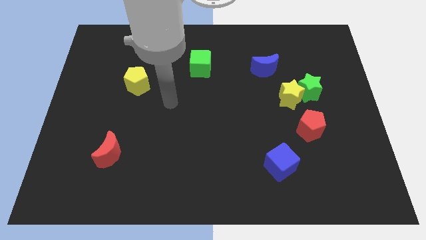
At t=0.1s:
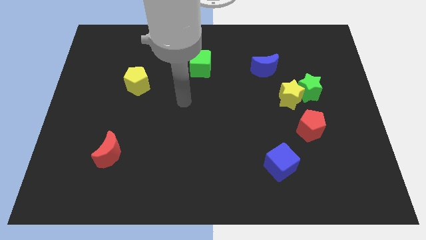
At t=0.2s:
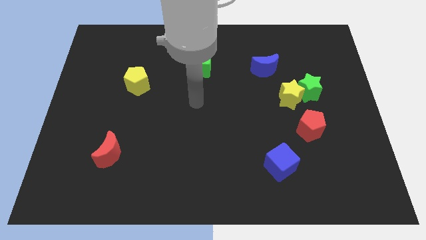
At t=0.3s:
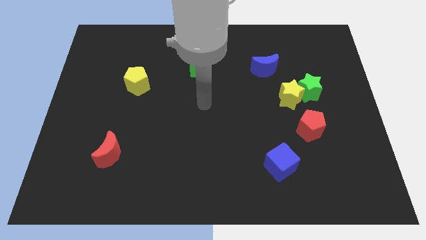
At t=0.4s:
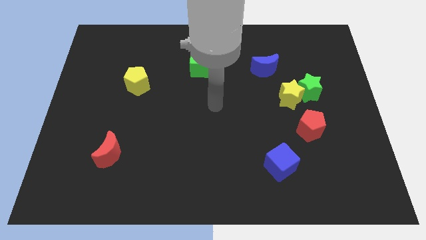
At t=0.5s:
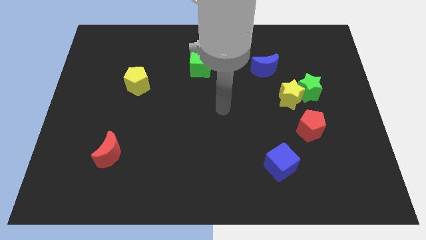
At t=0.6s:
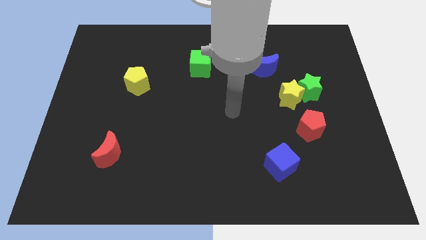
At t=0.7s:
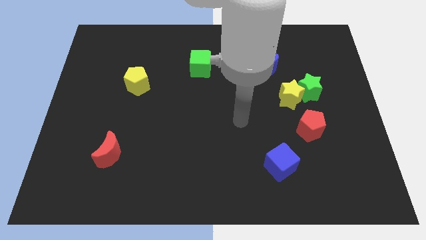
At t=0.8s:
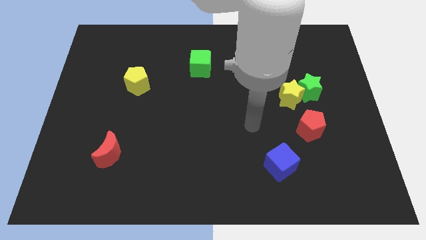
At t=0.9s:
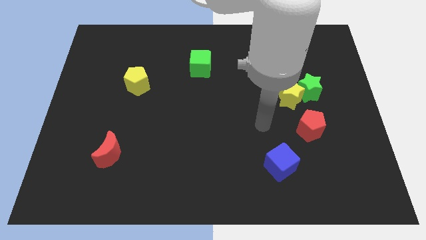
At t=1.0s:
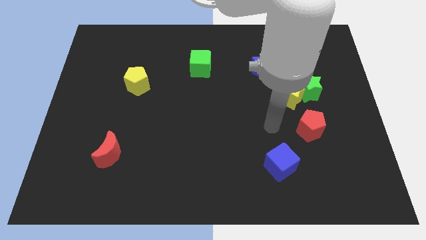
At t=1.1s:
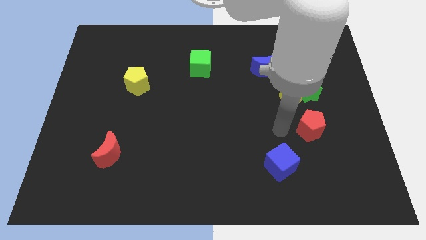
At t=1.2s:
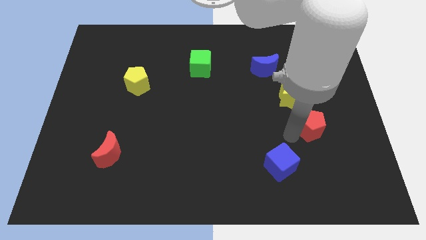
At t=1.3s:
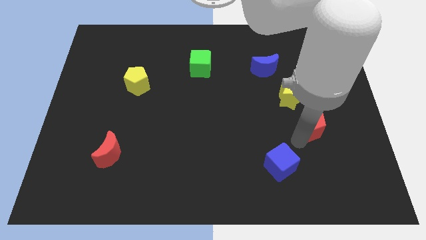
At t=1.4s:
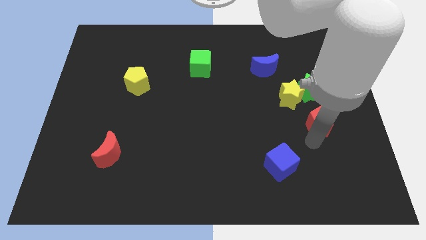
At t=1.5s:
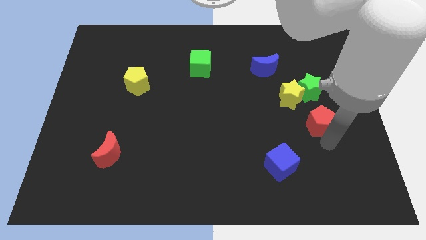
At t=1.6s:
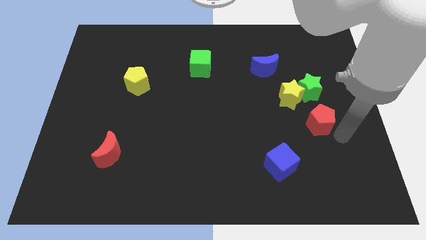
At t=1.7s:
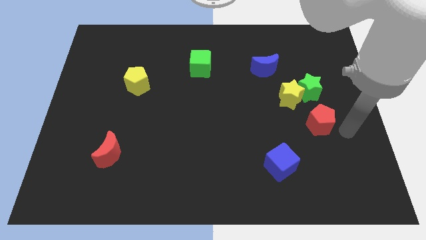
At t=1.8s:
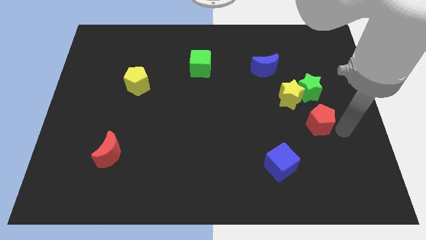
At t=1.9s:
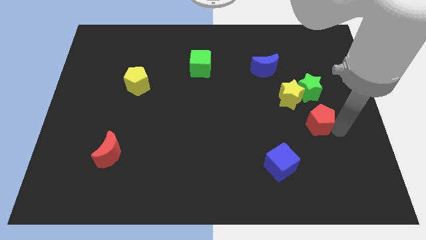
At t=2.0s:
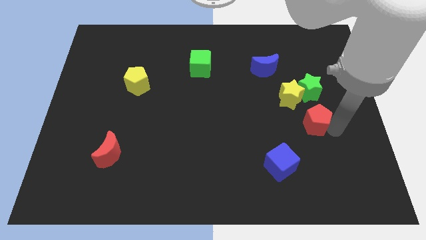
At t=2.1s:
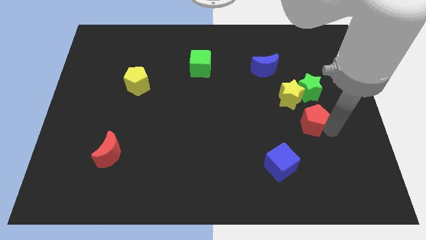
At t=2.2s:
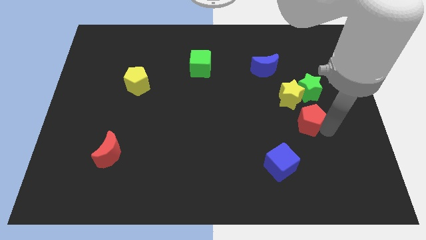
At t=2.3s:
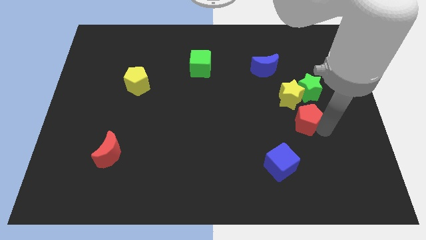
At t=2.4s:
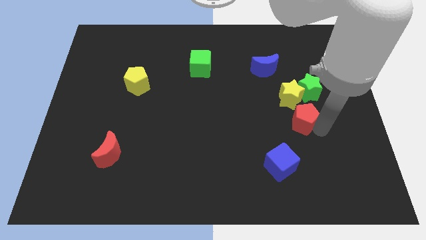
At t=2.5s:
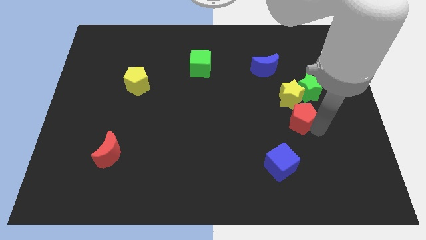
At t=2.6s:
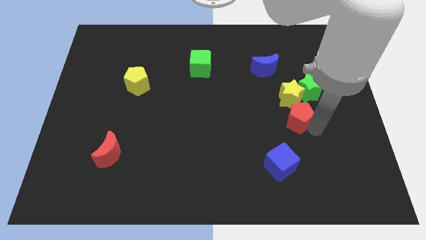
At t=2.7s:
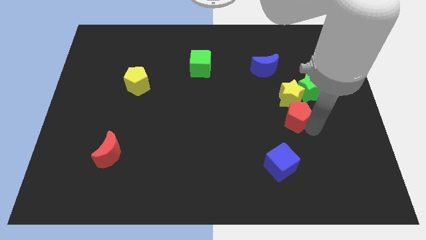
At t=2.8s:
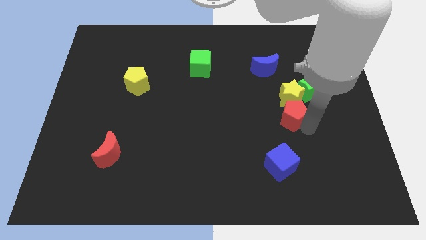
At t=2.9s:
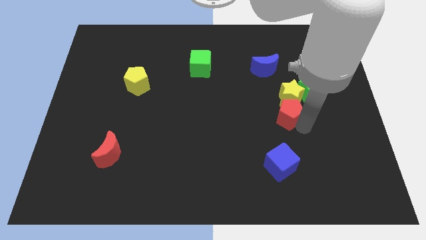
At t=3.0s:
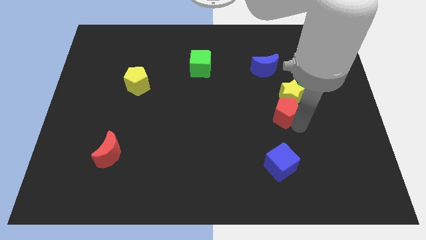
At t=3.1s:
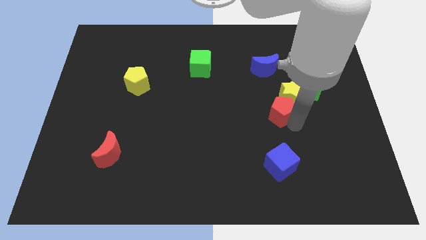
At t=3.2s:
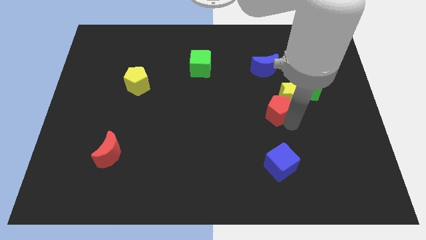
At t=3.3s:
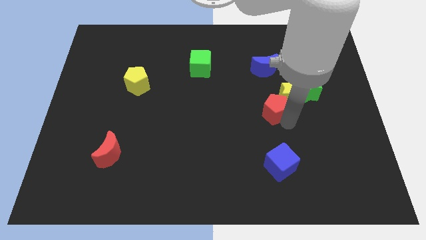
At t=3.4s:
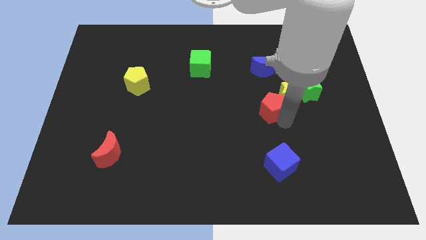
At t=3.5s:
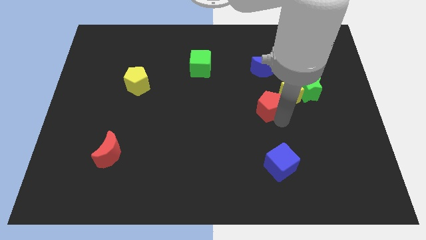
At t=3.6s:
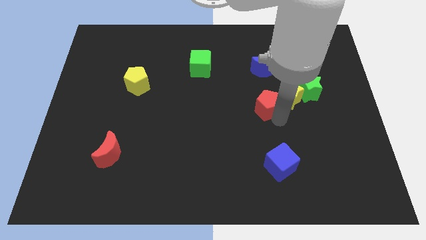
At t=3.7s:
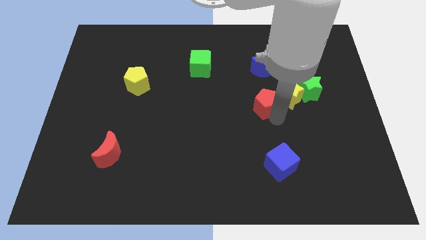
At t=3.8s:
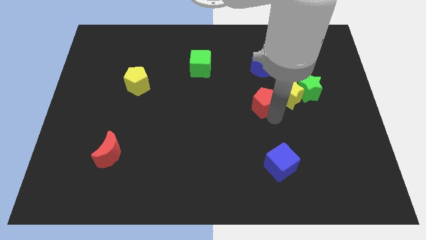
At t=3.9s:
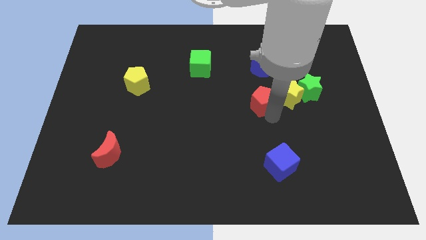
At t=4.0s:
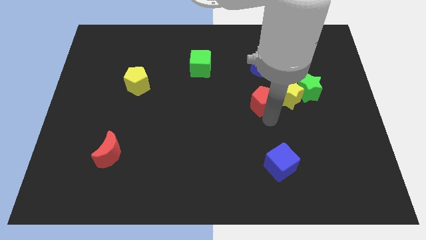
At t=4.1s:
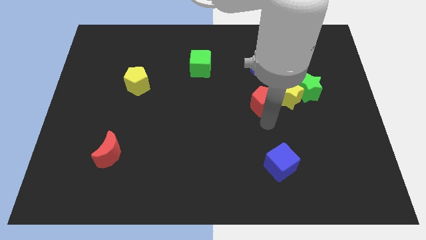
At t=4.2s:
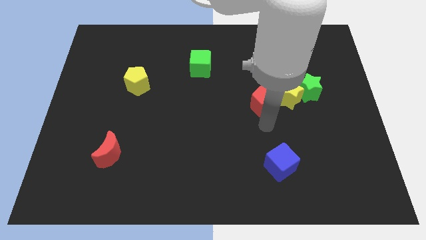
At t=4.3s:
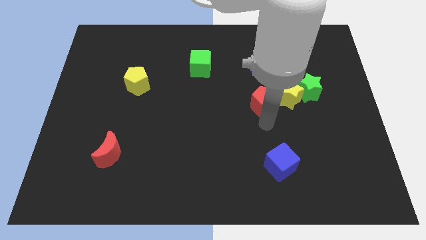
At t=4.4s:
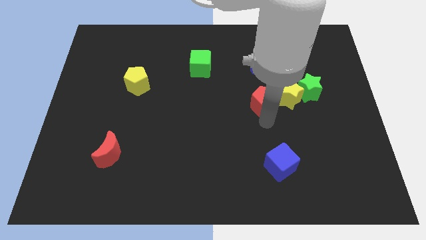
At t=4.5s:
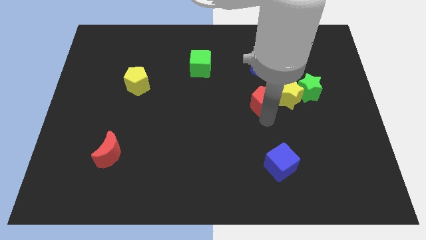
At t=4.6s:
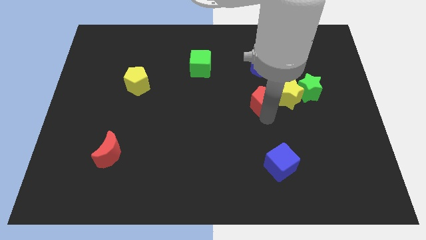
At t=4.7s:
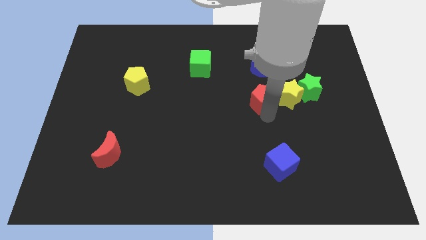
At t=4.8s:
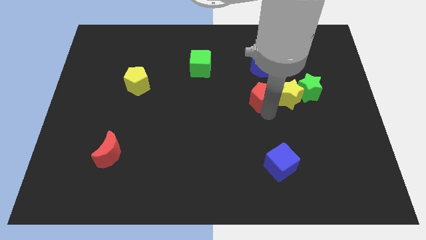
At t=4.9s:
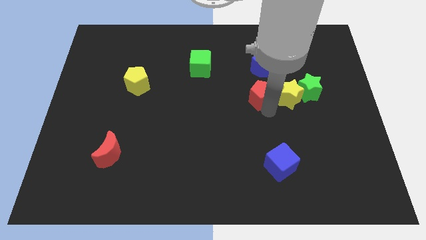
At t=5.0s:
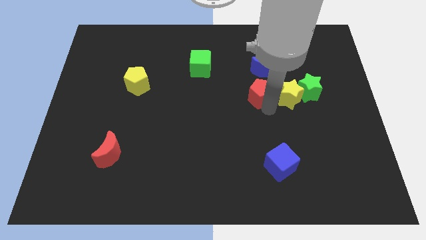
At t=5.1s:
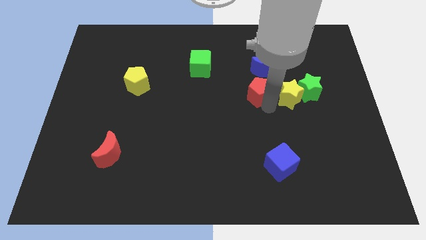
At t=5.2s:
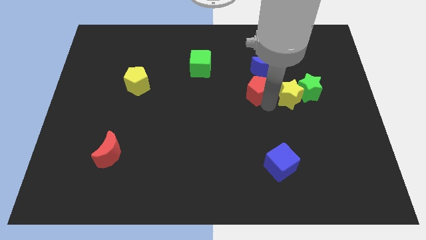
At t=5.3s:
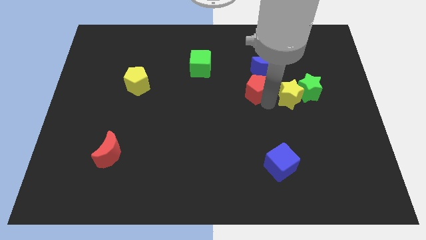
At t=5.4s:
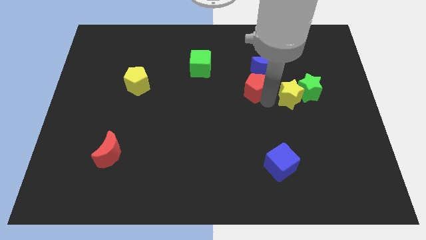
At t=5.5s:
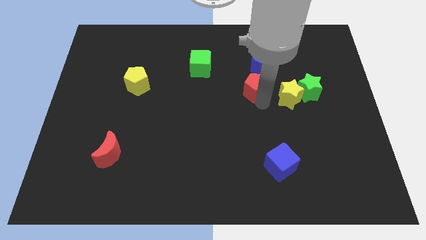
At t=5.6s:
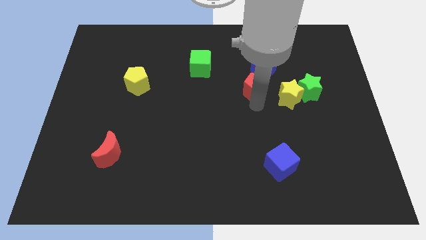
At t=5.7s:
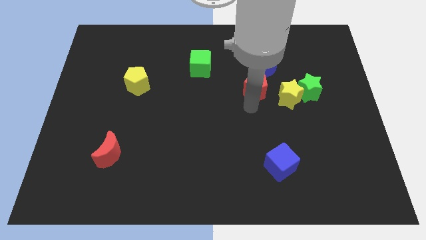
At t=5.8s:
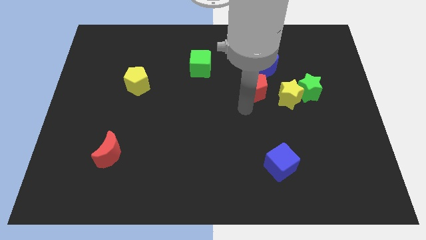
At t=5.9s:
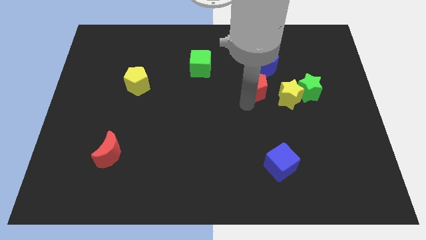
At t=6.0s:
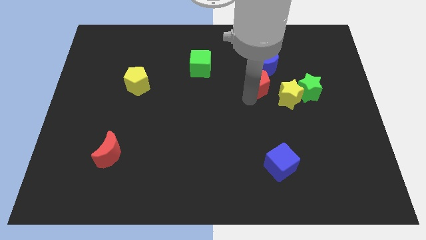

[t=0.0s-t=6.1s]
slide the red pentagon next to the blue moon

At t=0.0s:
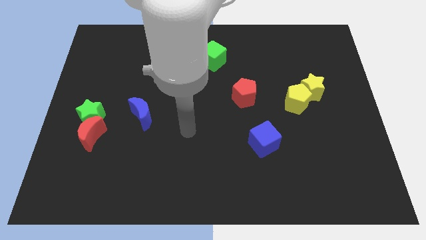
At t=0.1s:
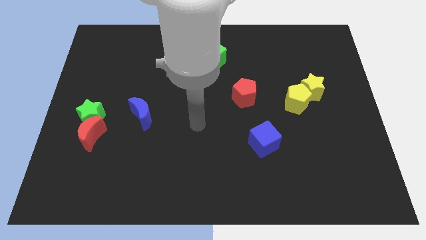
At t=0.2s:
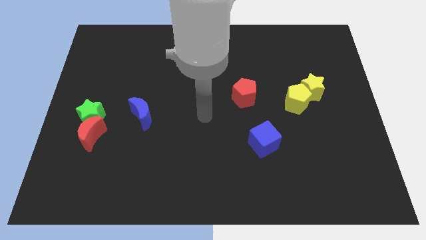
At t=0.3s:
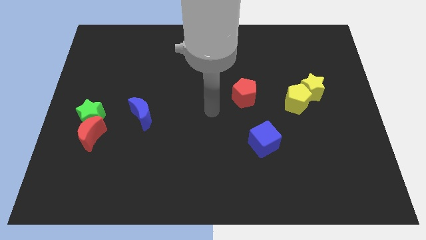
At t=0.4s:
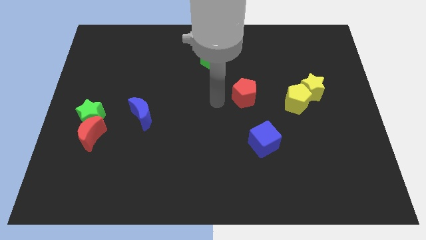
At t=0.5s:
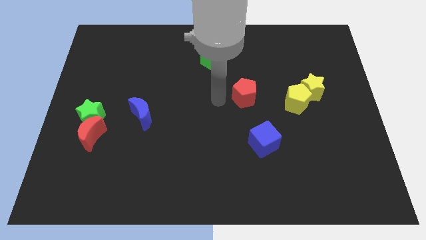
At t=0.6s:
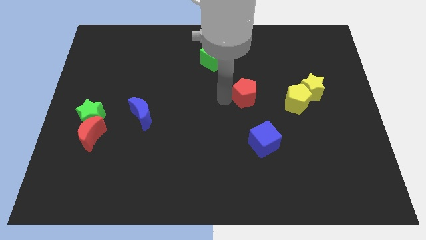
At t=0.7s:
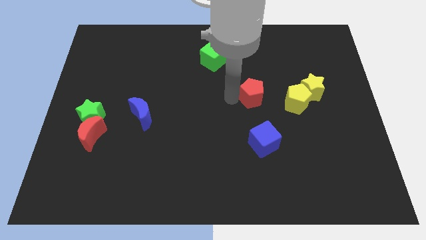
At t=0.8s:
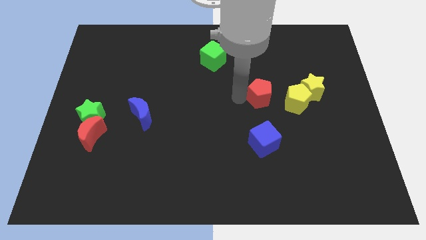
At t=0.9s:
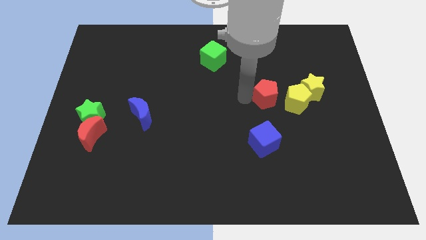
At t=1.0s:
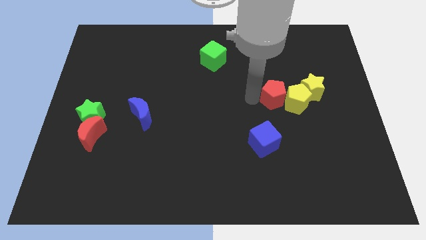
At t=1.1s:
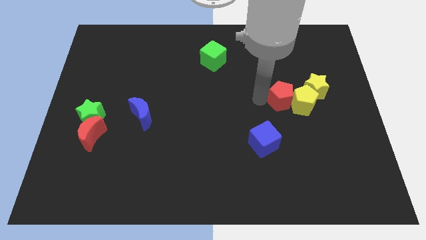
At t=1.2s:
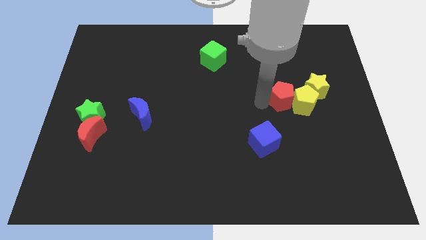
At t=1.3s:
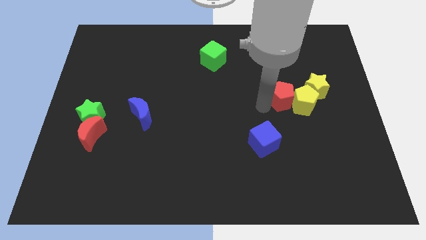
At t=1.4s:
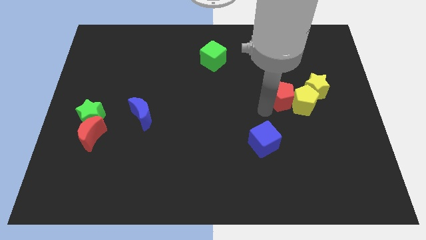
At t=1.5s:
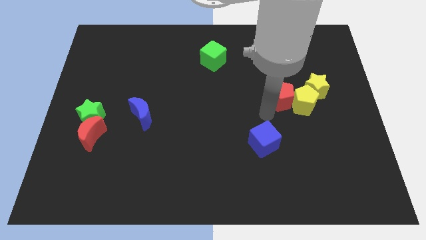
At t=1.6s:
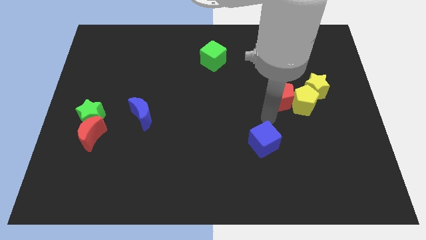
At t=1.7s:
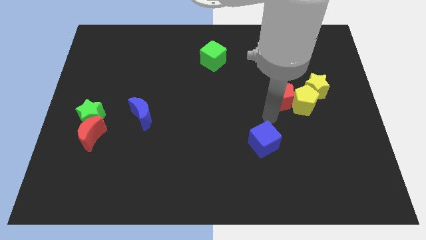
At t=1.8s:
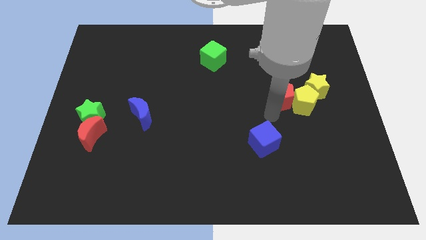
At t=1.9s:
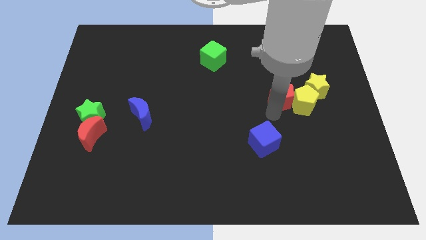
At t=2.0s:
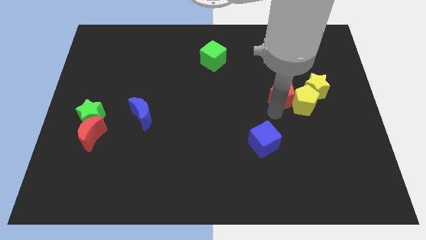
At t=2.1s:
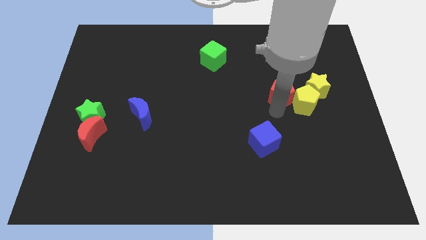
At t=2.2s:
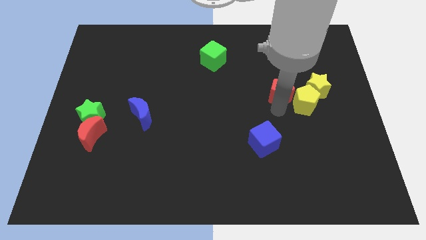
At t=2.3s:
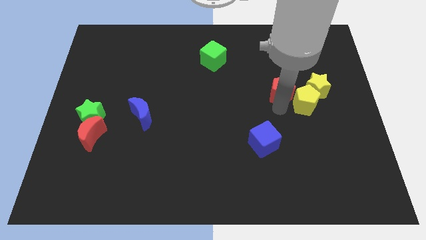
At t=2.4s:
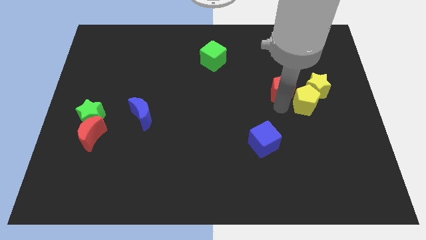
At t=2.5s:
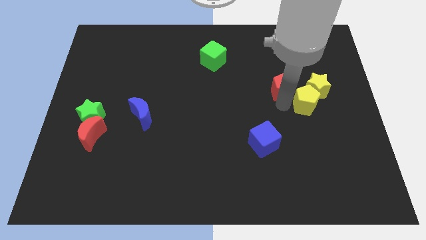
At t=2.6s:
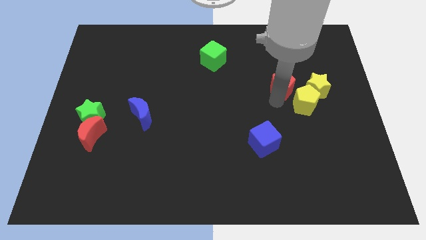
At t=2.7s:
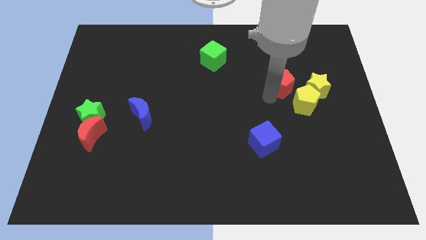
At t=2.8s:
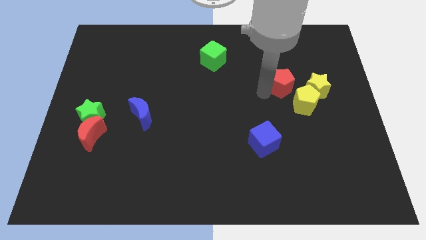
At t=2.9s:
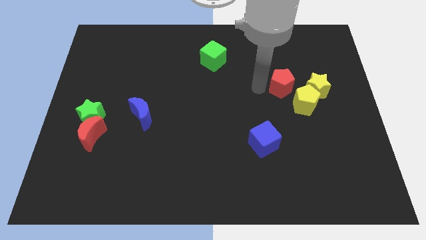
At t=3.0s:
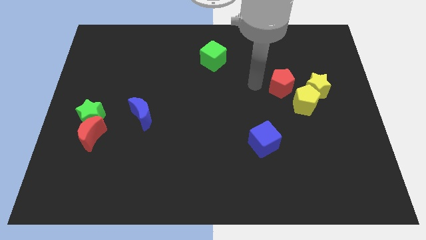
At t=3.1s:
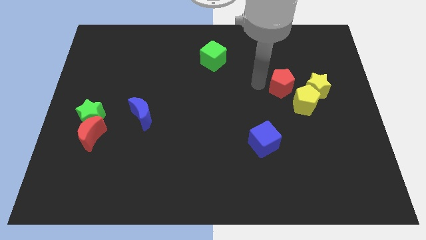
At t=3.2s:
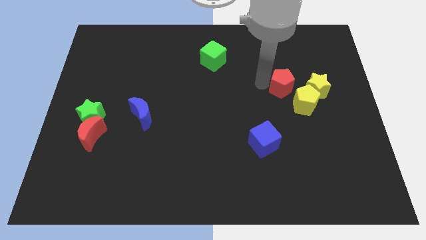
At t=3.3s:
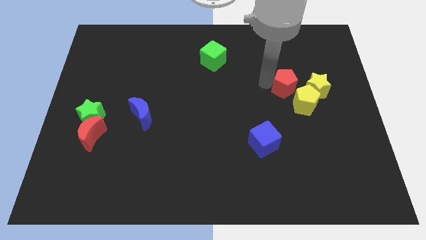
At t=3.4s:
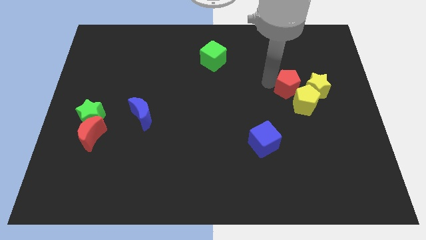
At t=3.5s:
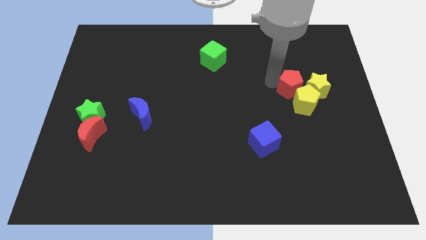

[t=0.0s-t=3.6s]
put the red pentagon towards the yellow star
